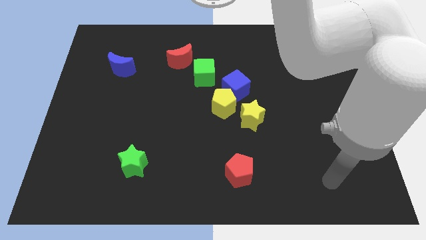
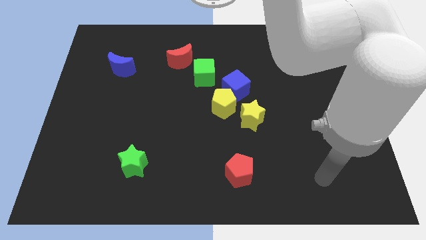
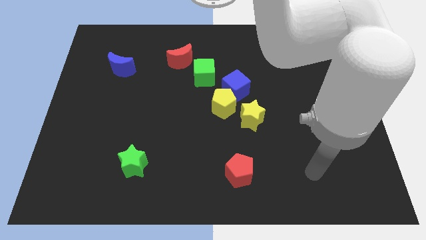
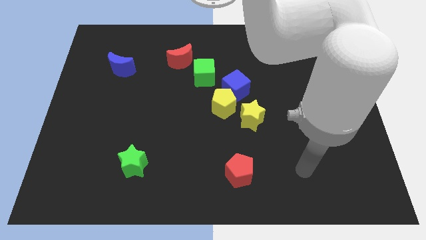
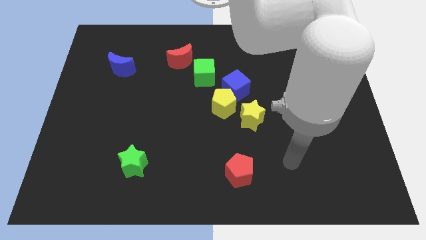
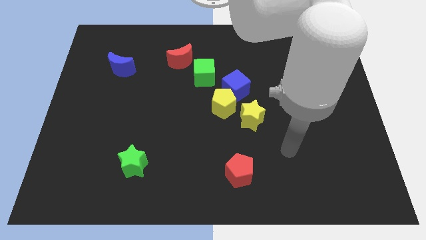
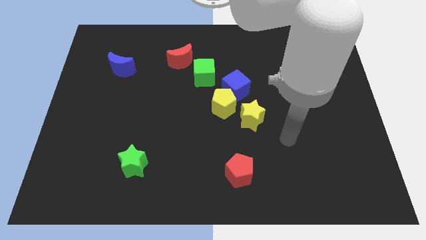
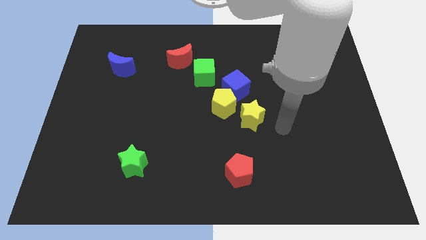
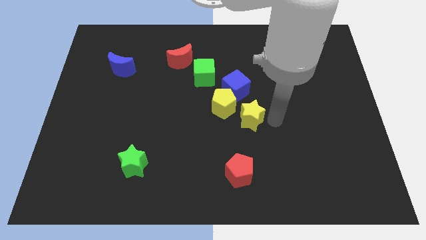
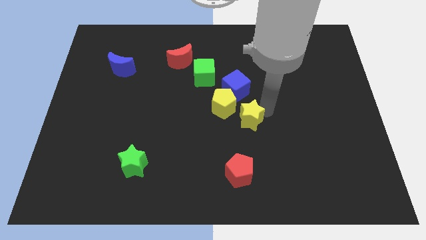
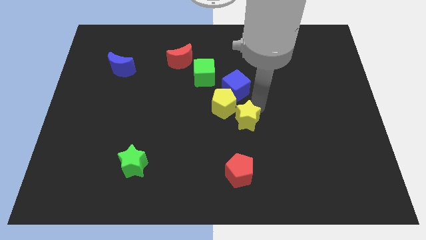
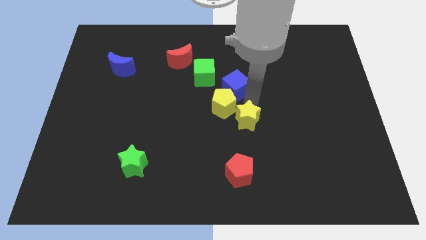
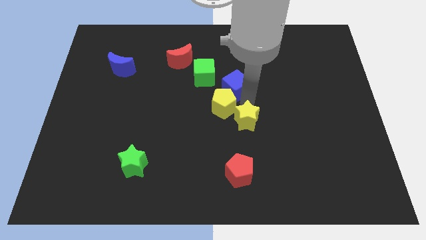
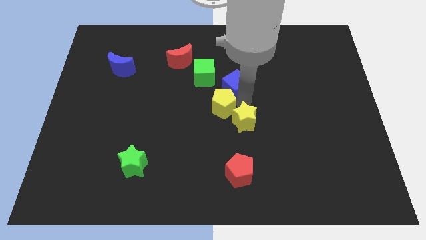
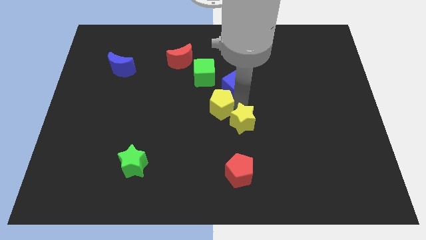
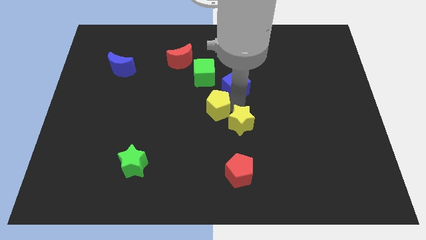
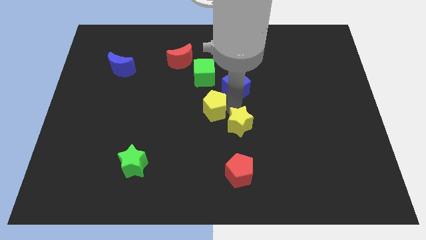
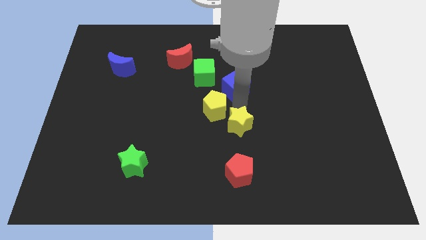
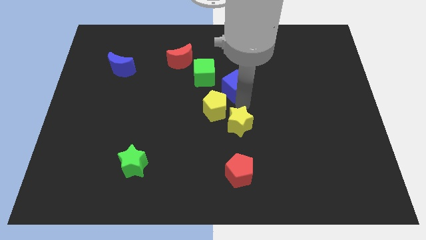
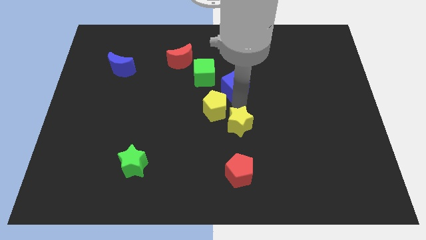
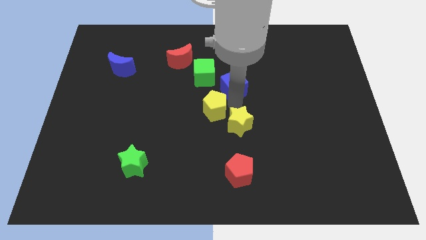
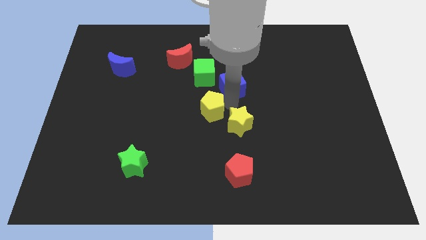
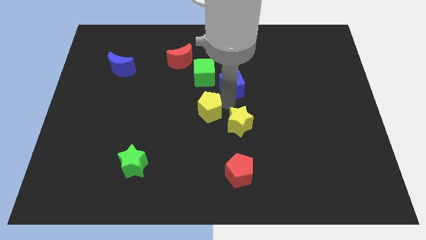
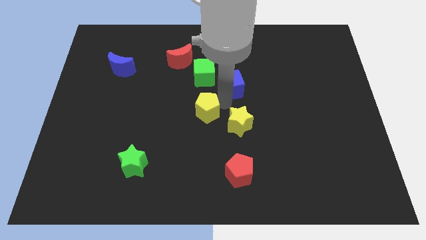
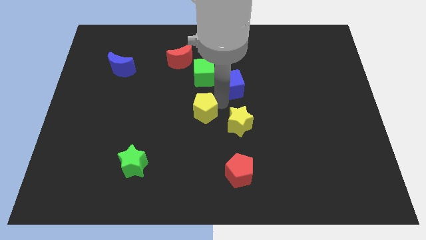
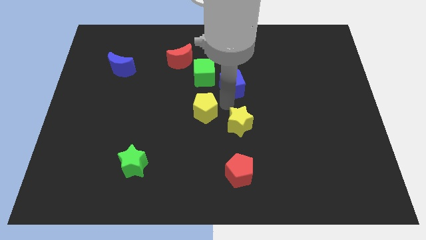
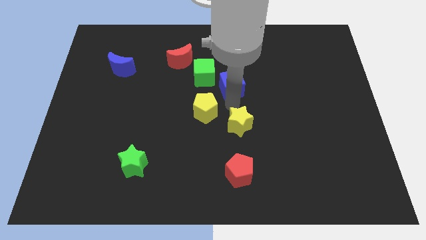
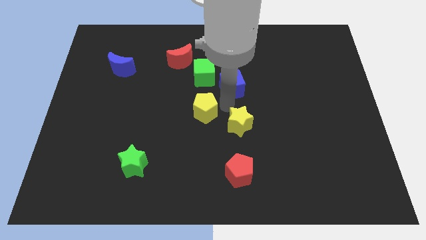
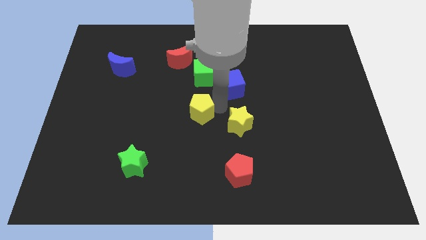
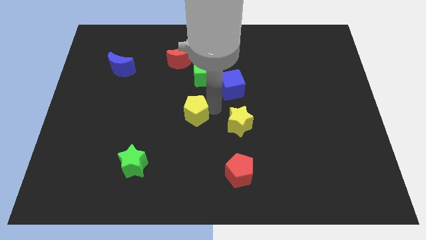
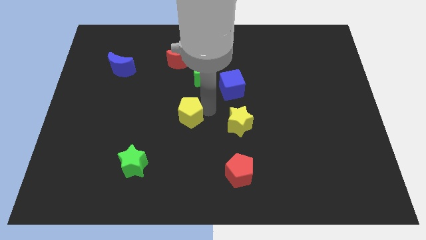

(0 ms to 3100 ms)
separate the yellow pentagon from the blue cube and yellow star

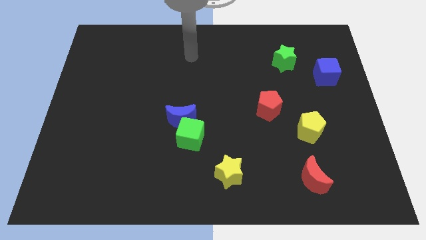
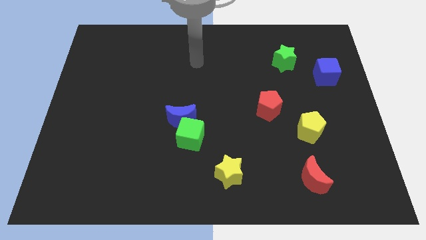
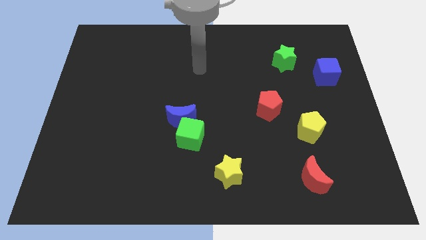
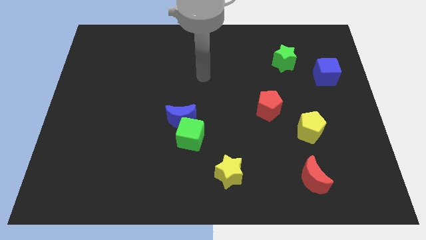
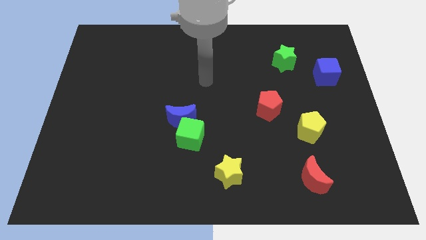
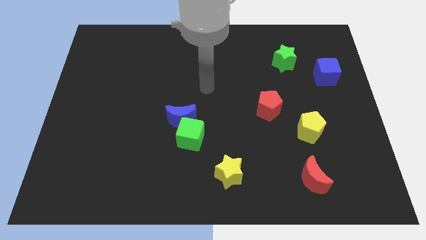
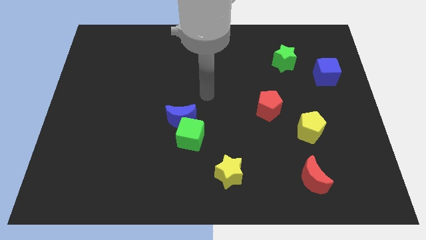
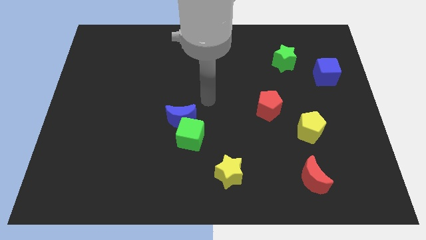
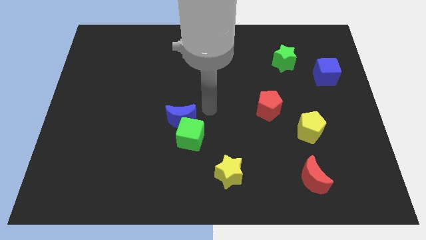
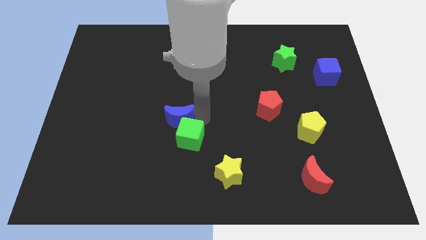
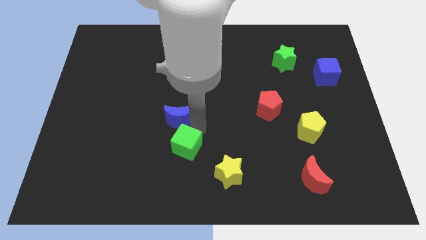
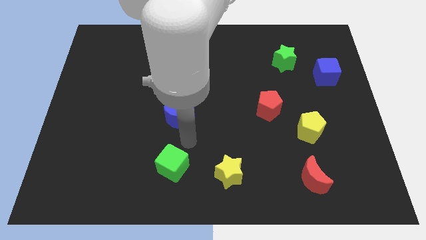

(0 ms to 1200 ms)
move the blue moon away from the green cube

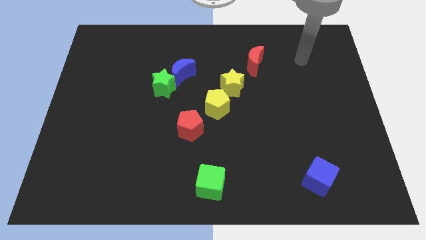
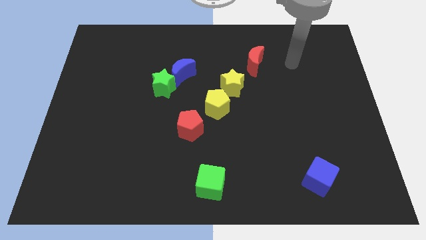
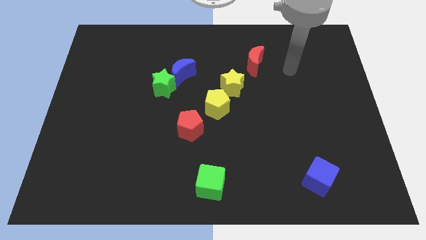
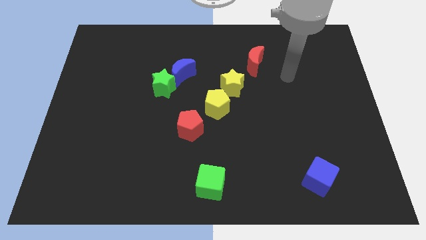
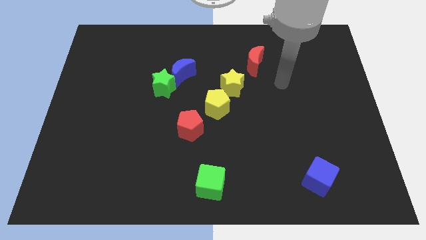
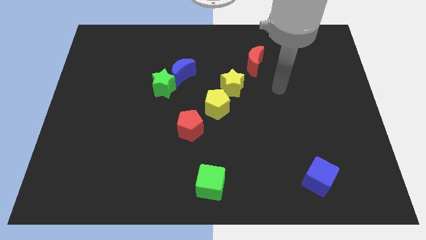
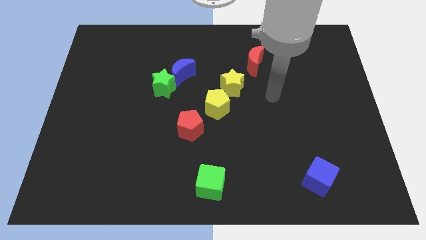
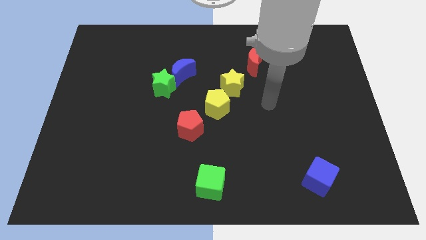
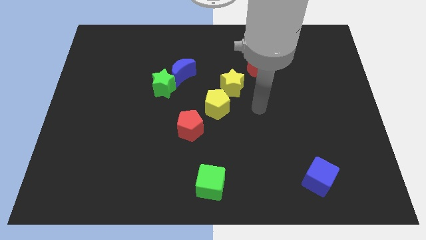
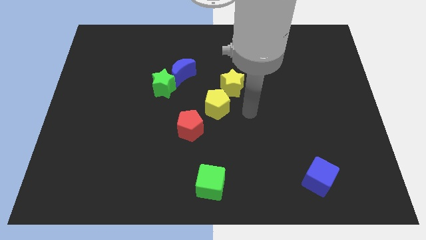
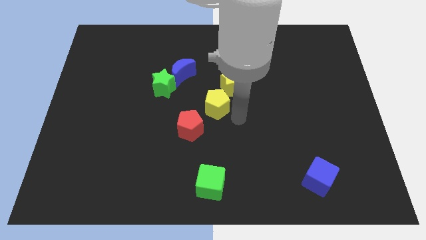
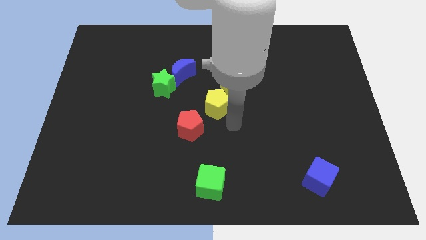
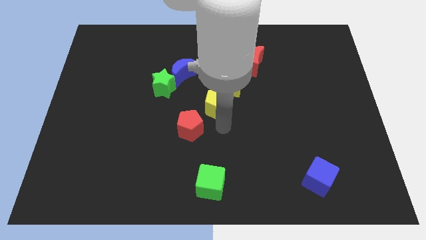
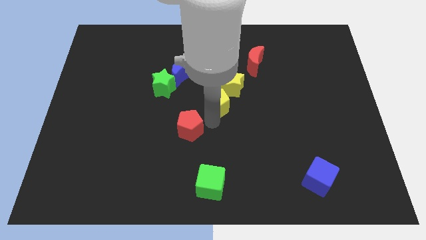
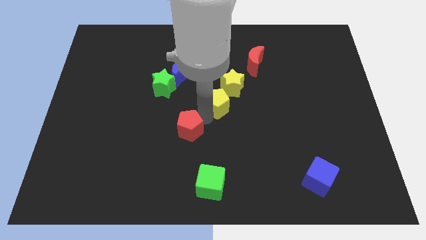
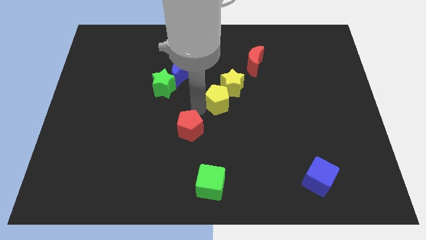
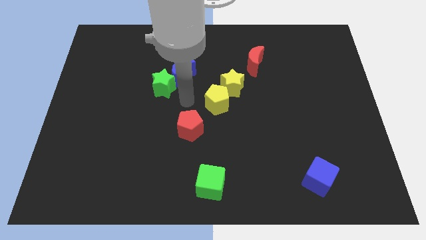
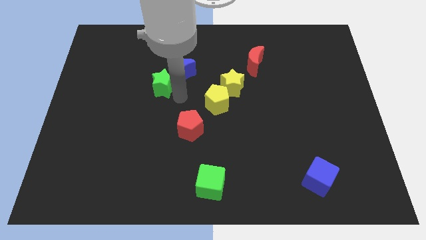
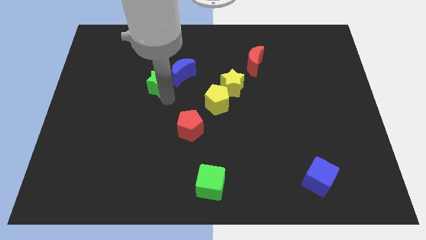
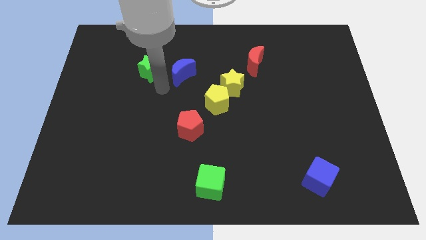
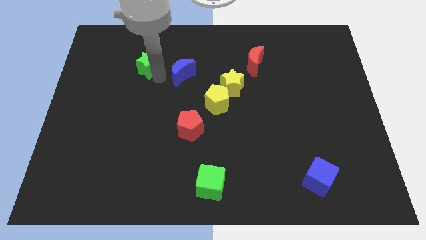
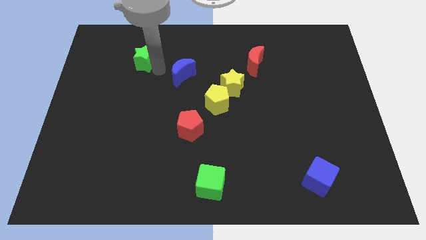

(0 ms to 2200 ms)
separate the blue moon from the green star

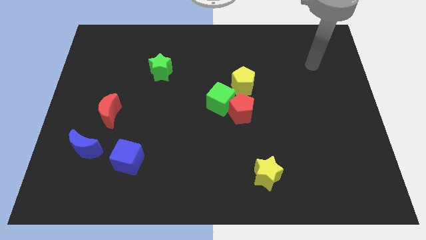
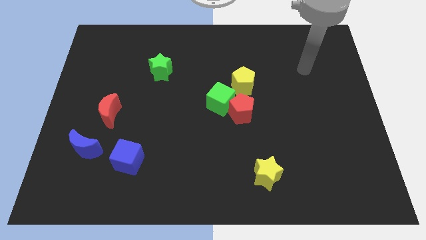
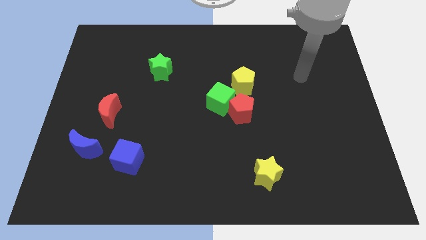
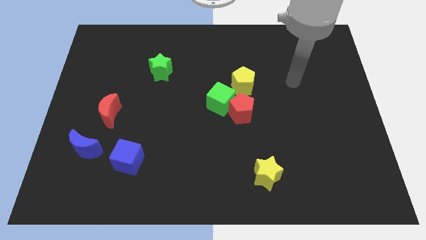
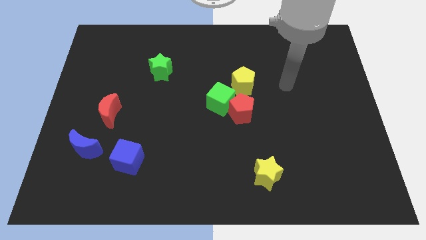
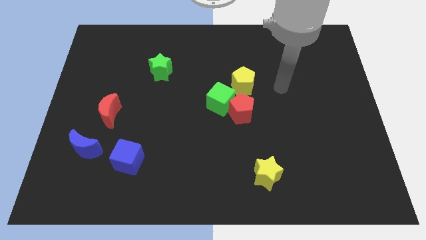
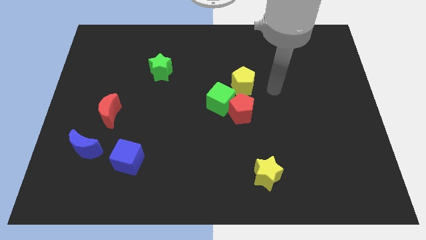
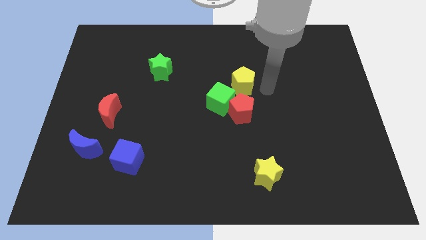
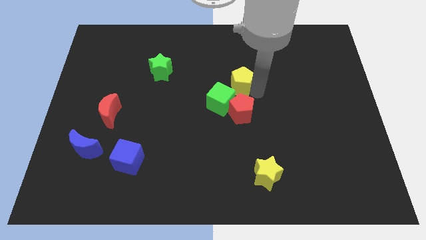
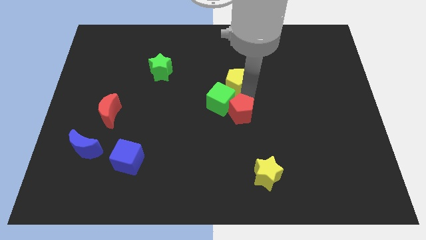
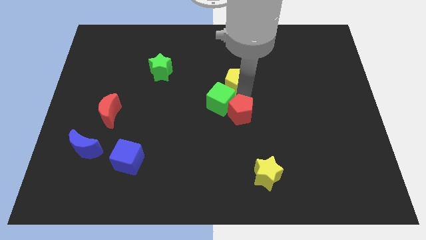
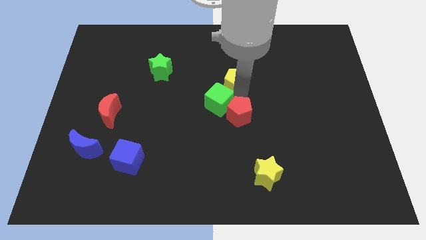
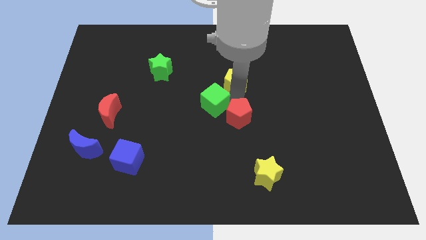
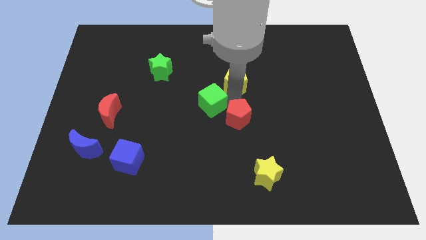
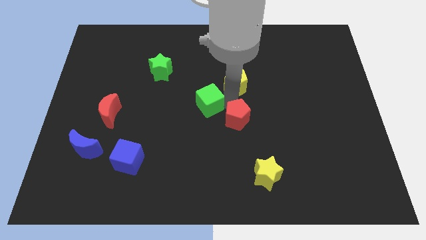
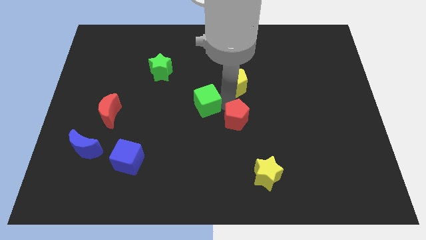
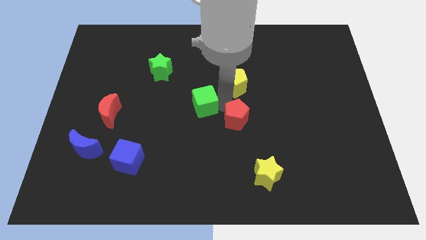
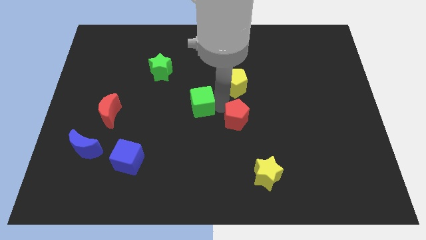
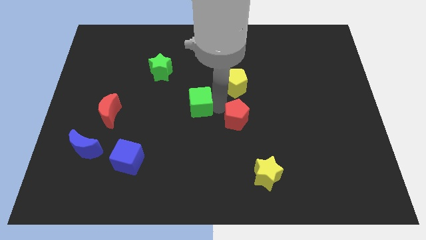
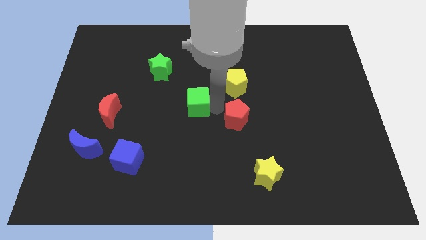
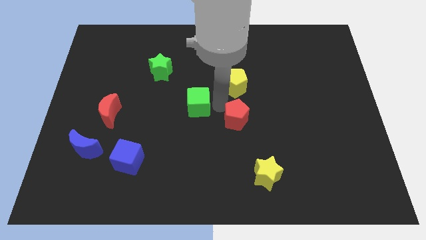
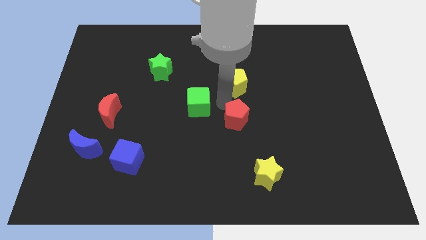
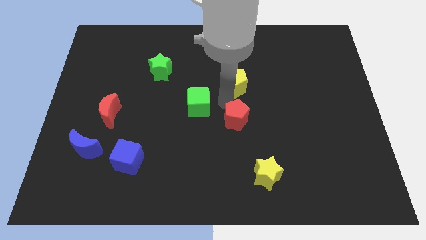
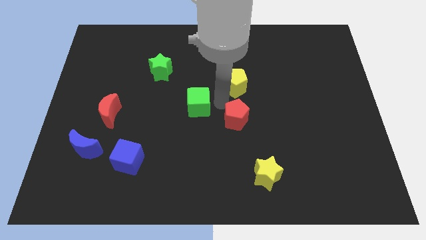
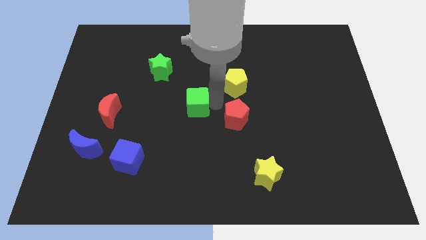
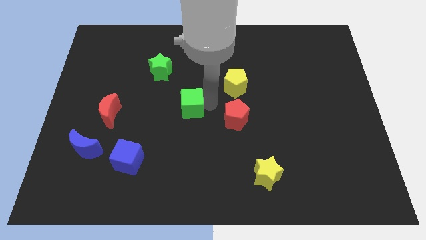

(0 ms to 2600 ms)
separate the green cube from the red pentagon and yellow pentagon

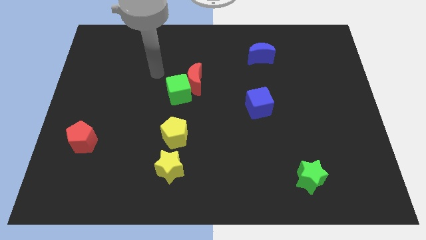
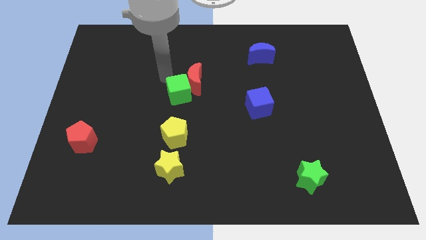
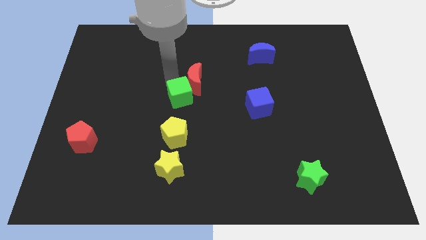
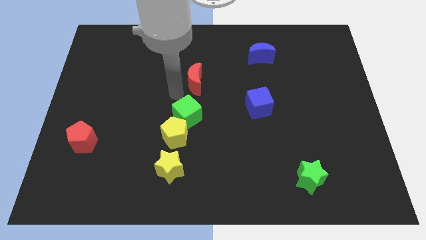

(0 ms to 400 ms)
pull the red moon apart from the green cube

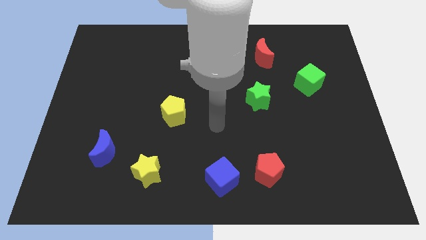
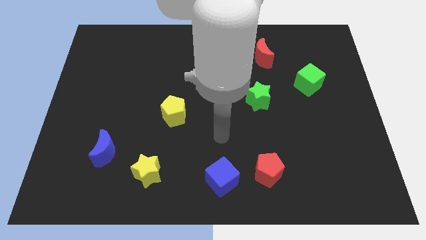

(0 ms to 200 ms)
move the red pentagon away from the blue cube
